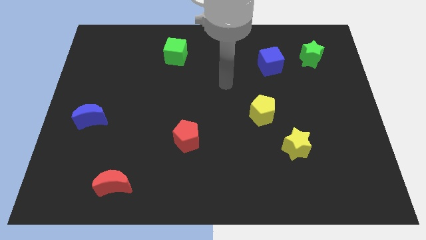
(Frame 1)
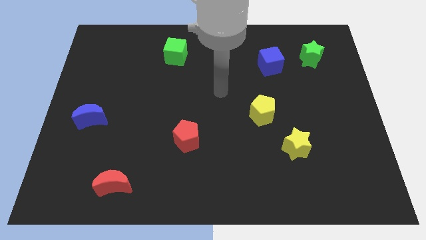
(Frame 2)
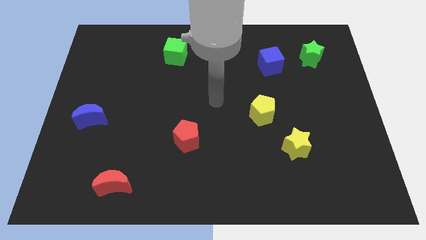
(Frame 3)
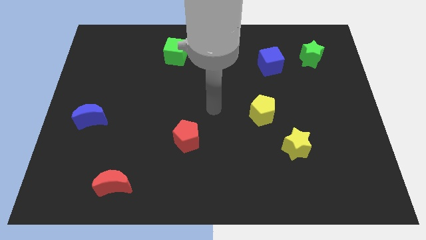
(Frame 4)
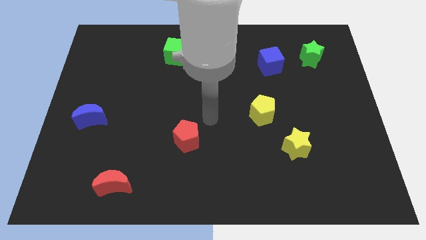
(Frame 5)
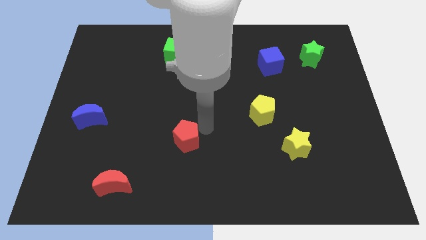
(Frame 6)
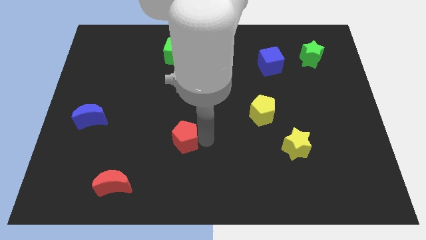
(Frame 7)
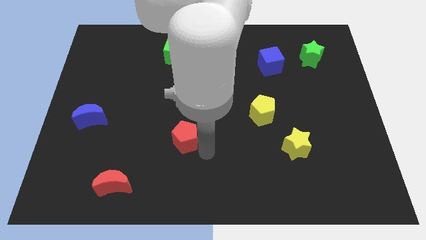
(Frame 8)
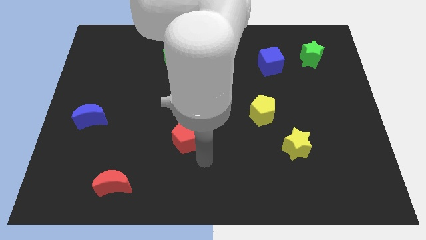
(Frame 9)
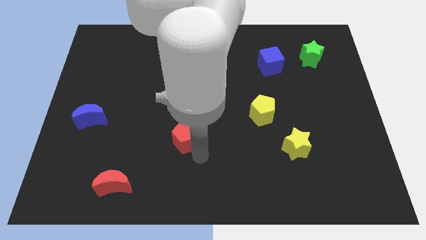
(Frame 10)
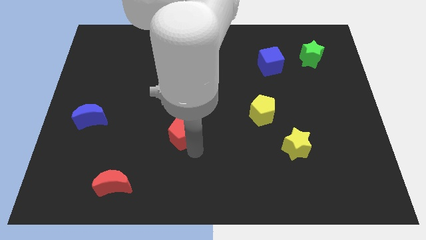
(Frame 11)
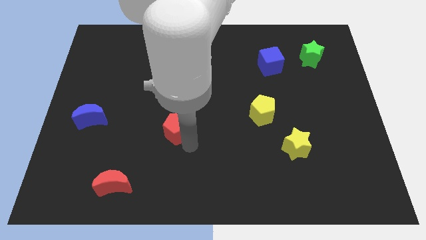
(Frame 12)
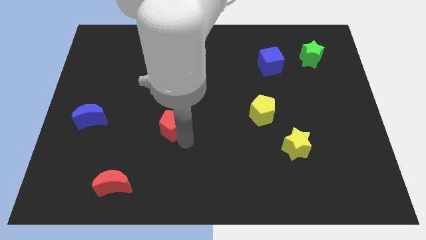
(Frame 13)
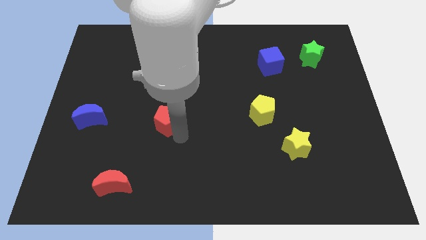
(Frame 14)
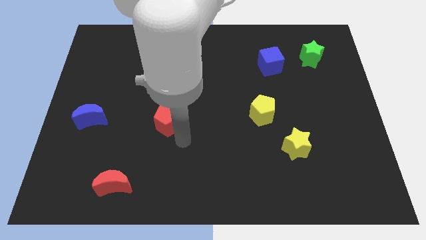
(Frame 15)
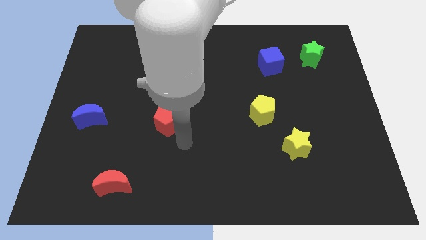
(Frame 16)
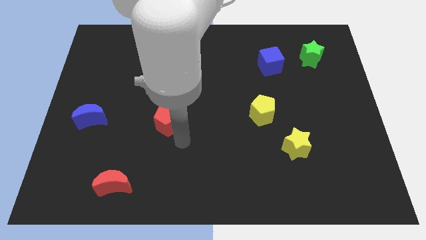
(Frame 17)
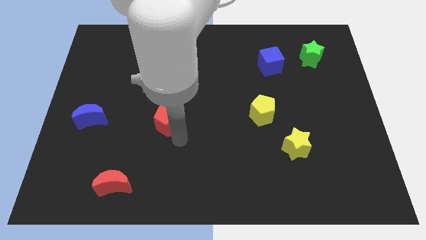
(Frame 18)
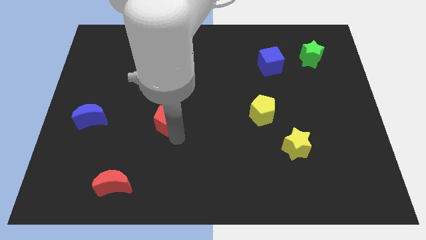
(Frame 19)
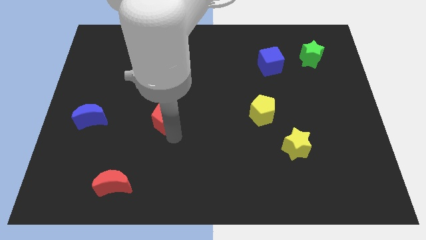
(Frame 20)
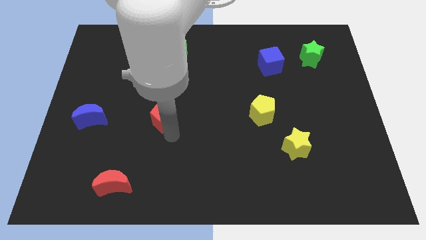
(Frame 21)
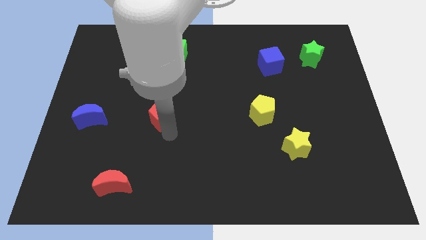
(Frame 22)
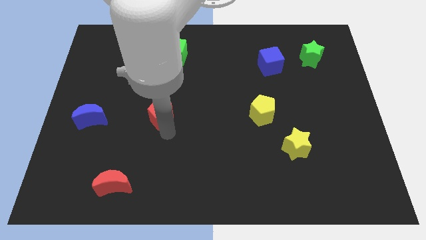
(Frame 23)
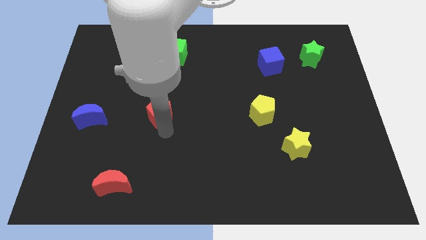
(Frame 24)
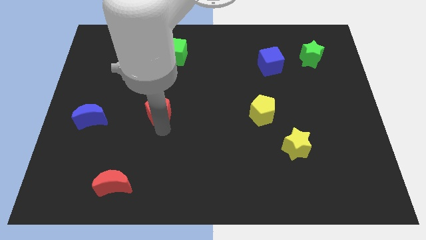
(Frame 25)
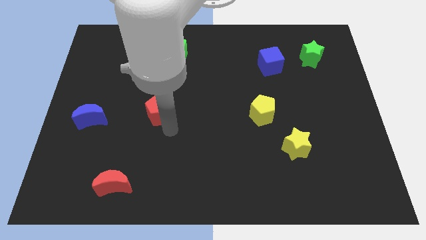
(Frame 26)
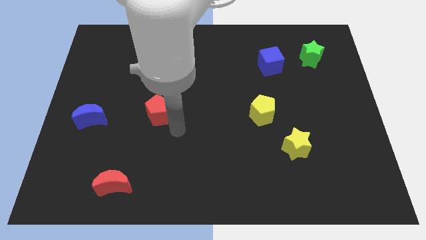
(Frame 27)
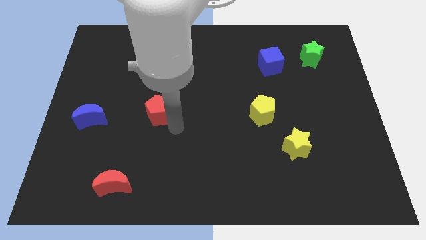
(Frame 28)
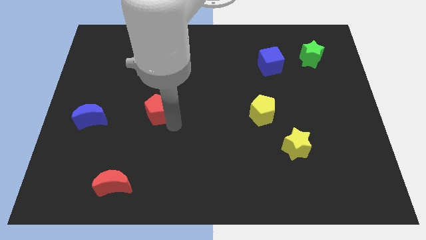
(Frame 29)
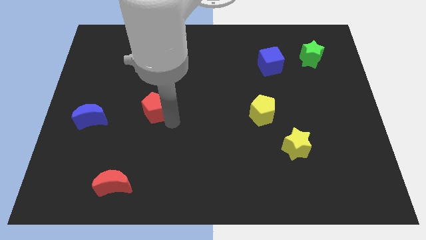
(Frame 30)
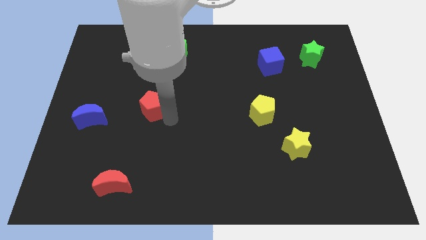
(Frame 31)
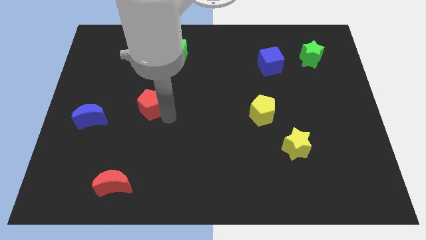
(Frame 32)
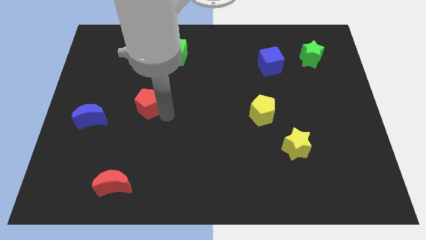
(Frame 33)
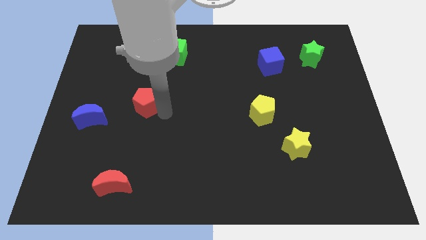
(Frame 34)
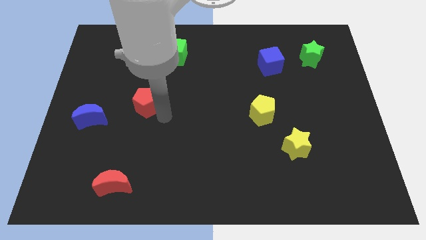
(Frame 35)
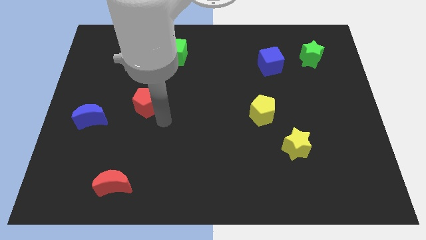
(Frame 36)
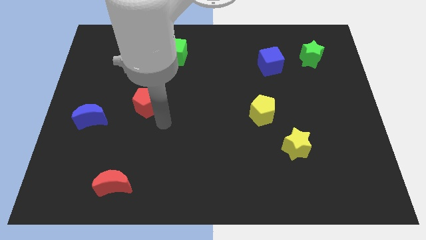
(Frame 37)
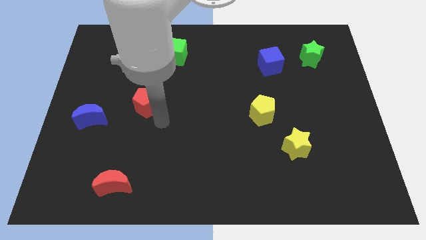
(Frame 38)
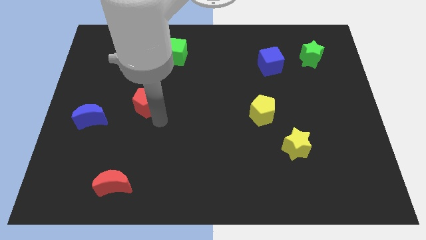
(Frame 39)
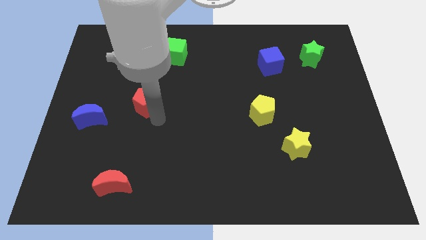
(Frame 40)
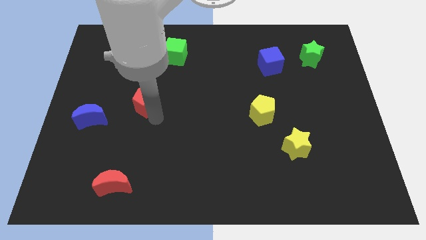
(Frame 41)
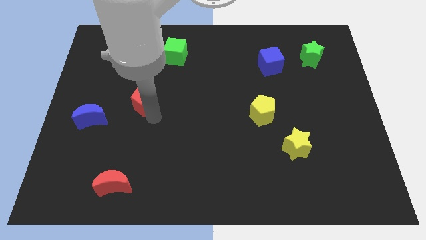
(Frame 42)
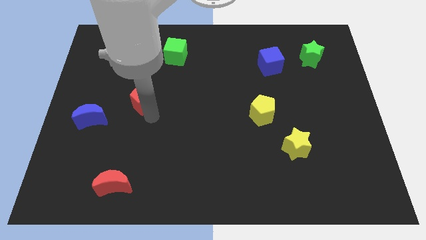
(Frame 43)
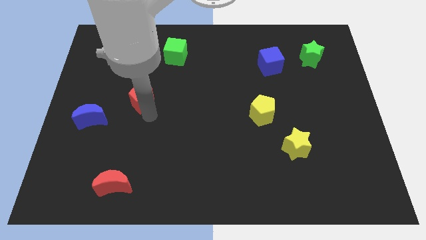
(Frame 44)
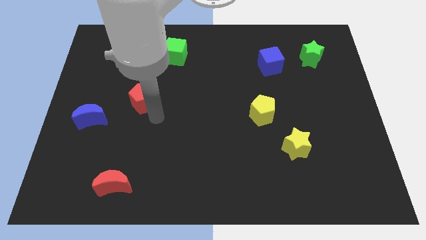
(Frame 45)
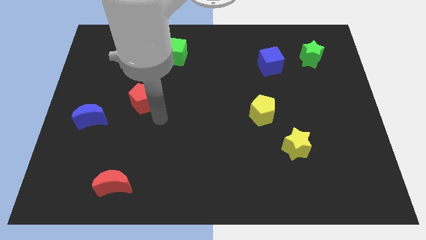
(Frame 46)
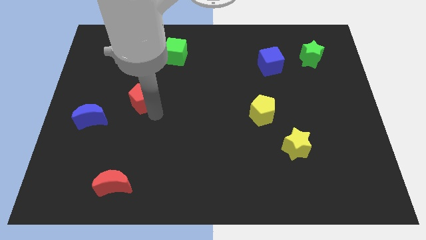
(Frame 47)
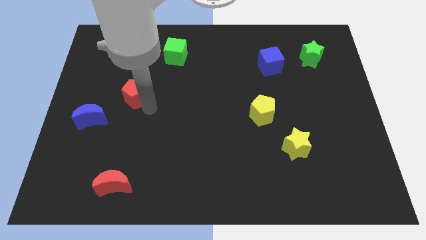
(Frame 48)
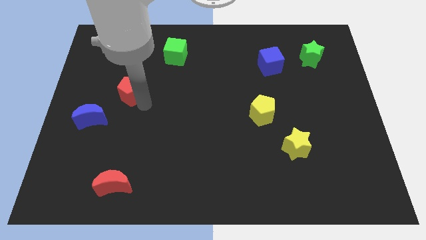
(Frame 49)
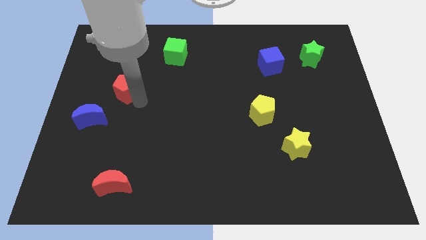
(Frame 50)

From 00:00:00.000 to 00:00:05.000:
move the red pentagon diagonally upwards and to the left

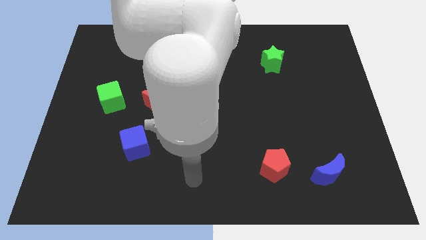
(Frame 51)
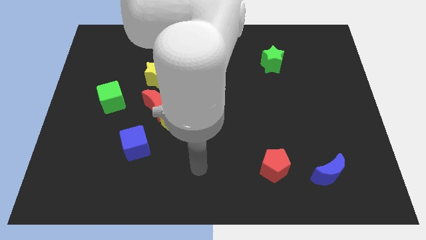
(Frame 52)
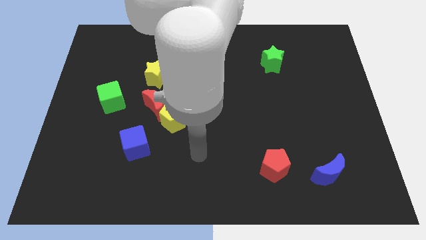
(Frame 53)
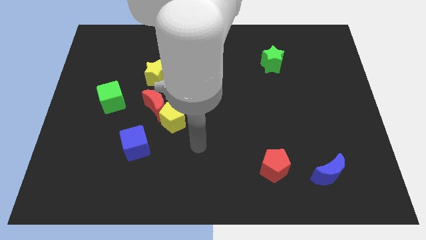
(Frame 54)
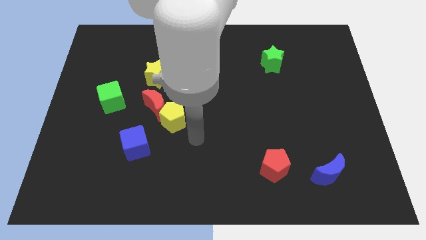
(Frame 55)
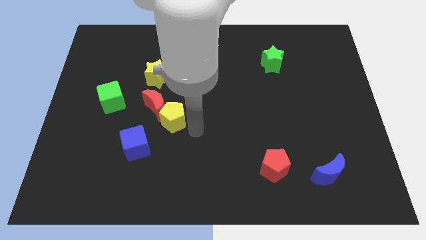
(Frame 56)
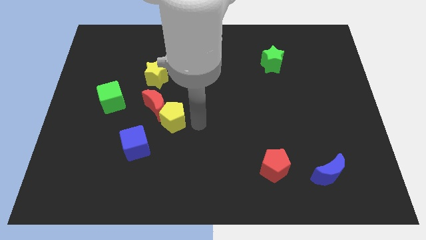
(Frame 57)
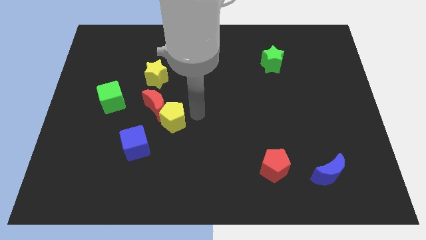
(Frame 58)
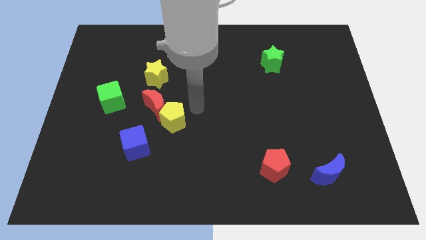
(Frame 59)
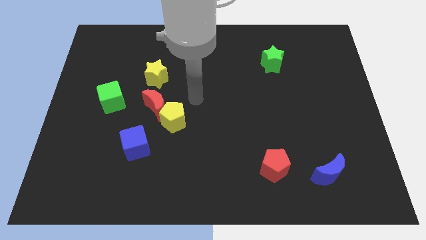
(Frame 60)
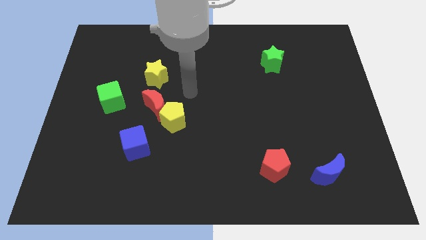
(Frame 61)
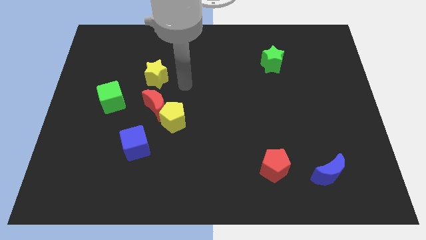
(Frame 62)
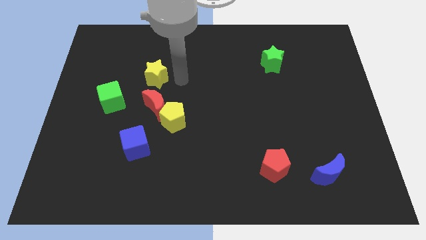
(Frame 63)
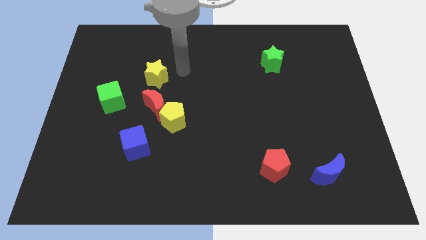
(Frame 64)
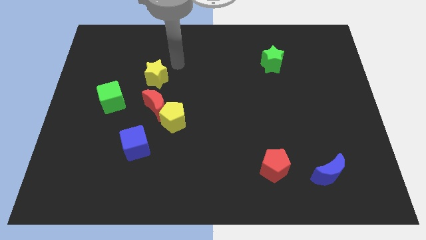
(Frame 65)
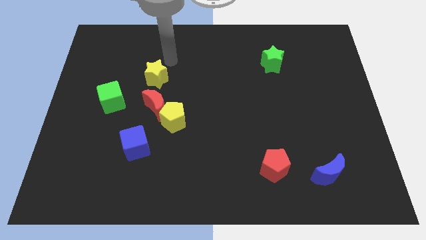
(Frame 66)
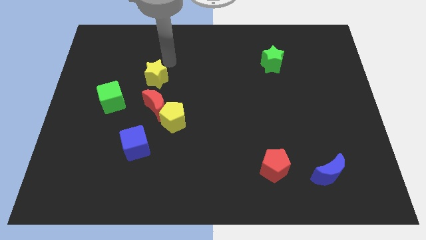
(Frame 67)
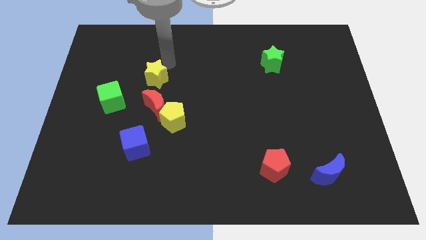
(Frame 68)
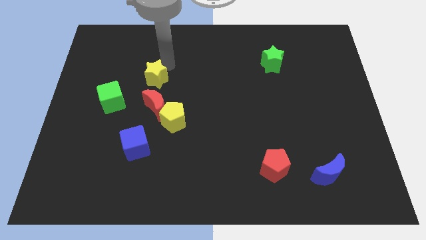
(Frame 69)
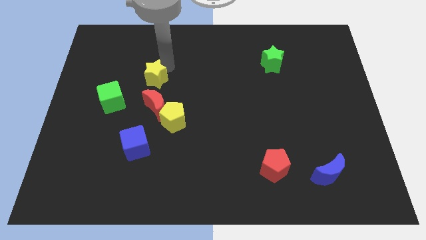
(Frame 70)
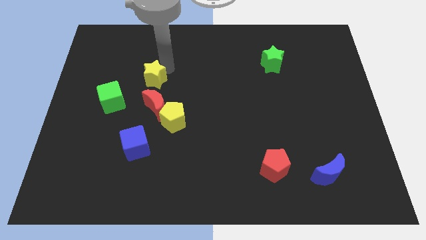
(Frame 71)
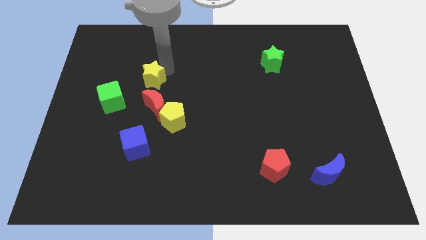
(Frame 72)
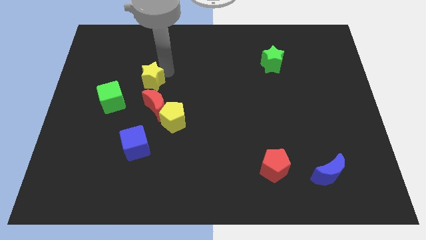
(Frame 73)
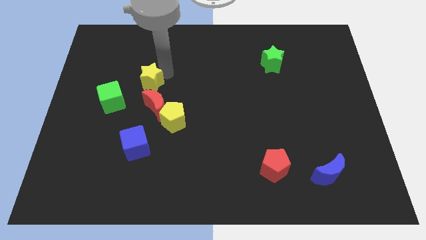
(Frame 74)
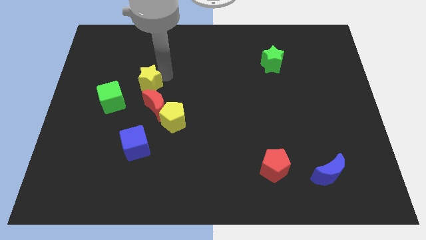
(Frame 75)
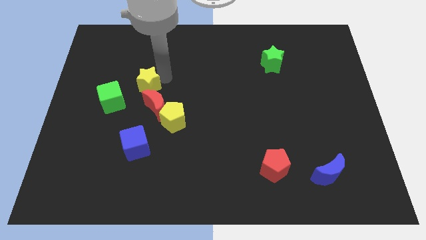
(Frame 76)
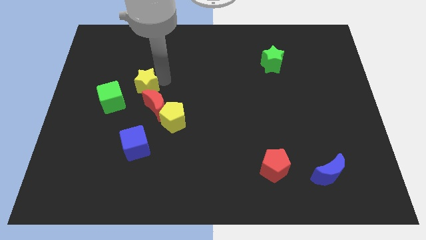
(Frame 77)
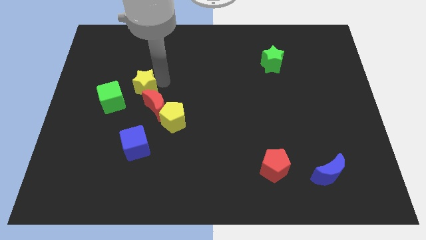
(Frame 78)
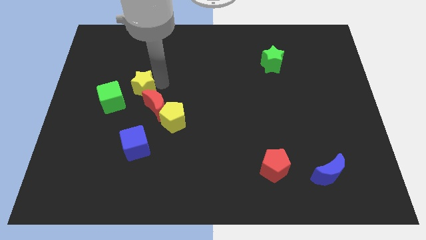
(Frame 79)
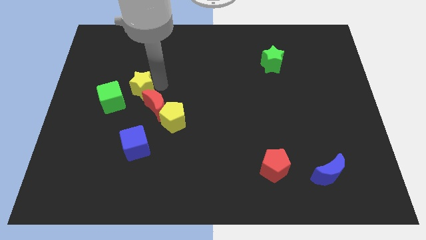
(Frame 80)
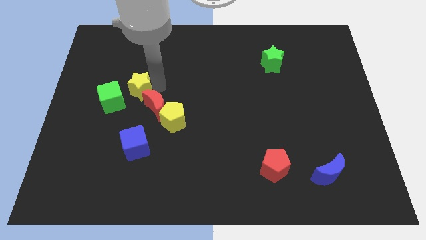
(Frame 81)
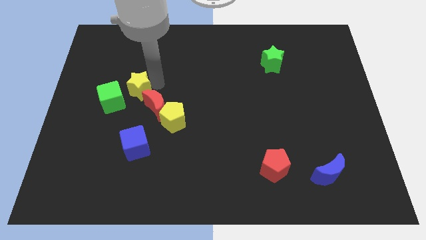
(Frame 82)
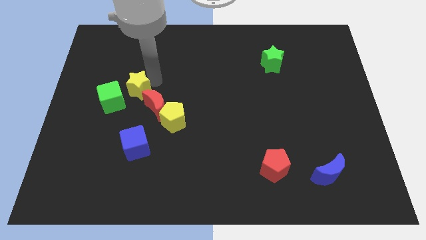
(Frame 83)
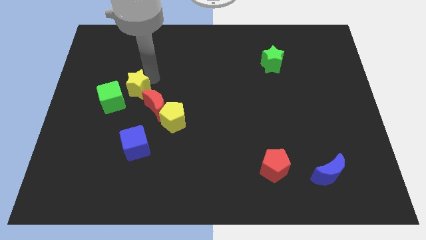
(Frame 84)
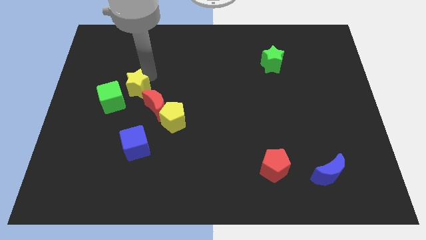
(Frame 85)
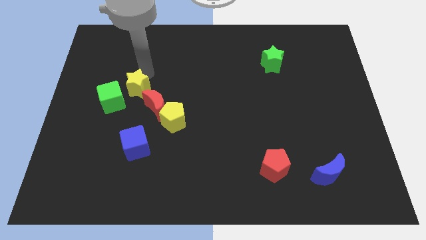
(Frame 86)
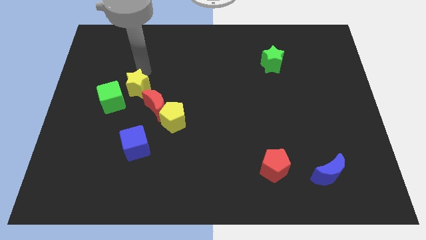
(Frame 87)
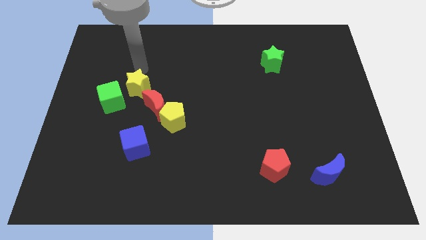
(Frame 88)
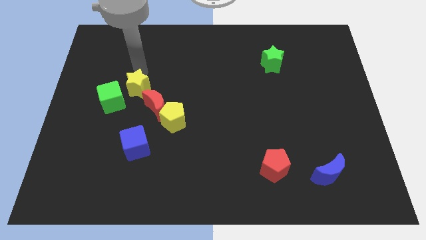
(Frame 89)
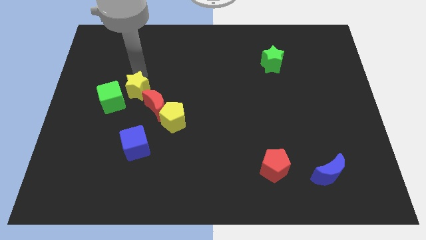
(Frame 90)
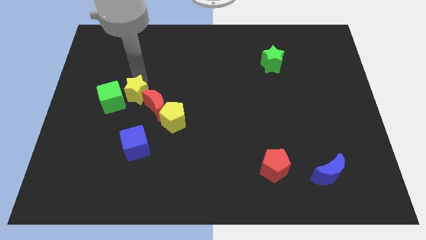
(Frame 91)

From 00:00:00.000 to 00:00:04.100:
slide the yellow star a little bit down and to the left
